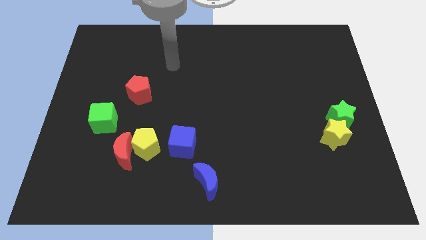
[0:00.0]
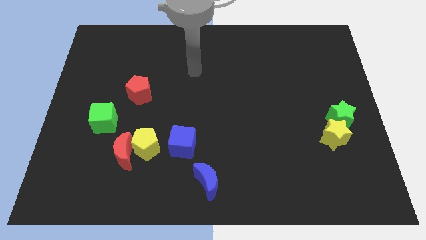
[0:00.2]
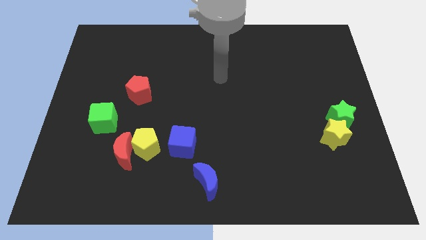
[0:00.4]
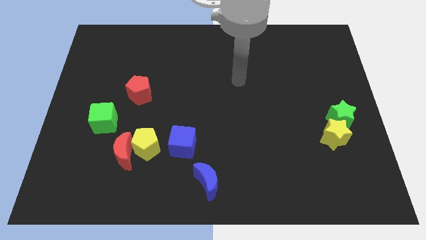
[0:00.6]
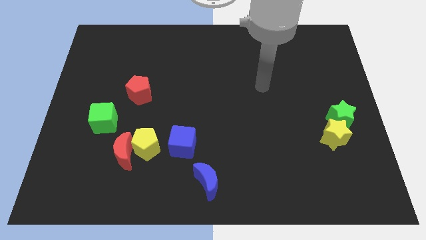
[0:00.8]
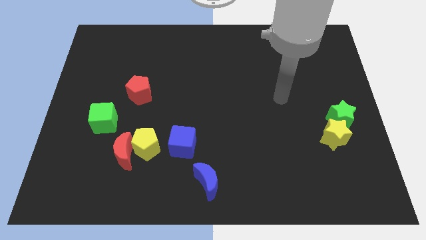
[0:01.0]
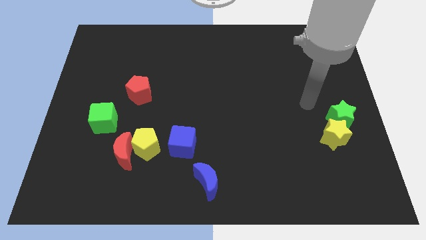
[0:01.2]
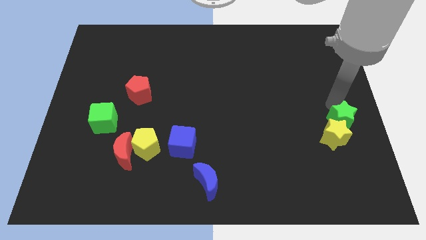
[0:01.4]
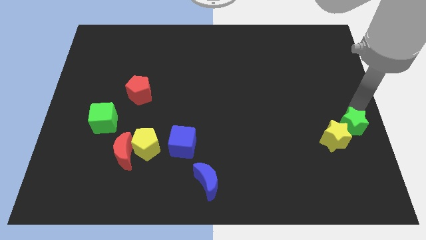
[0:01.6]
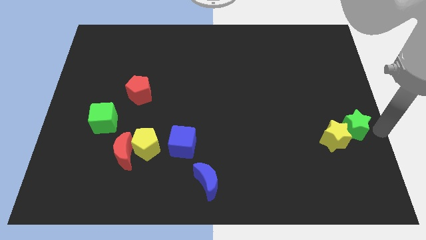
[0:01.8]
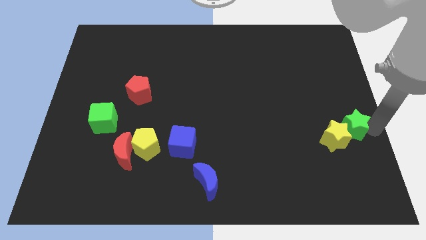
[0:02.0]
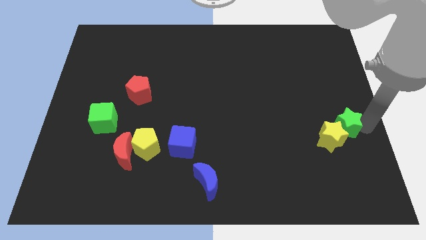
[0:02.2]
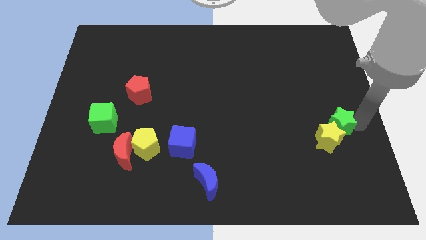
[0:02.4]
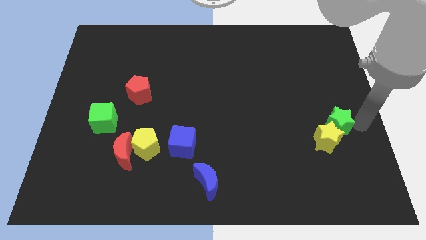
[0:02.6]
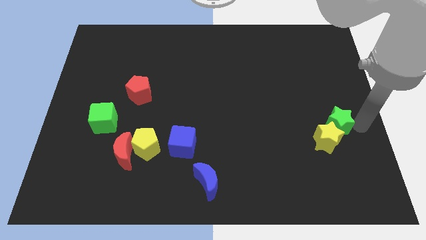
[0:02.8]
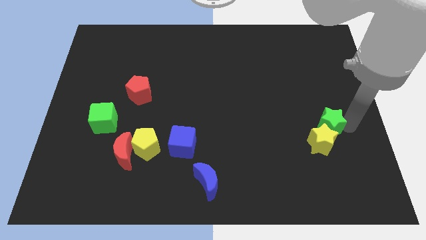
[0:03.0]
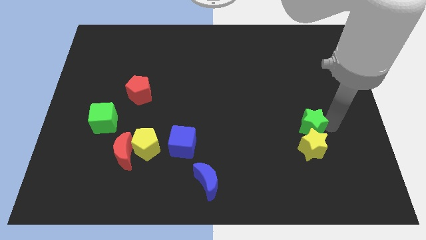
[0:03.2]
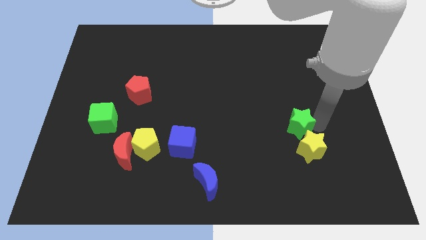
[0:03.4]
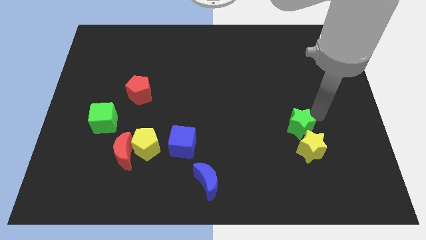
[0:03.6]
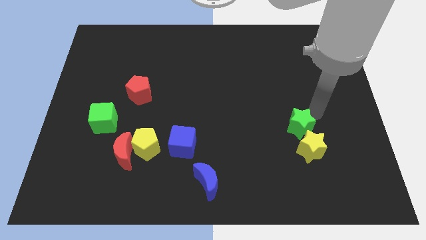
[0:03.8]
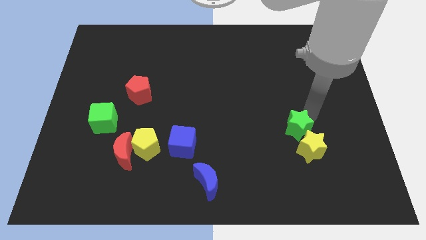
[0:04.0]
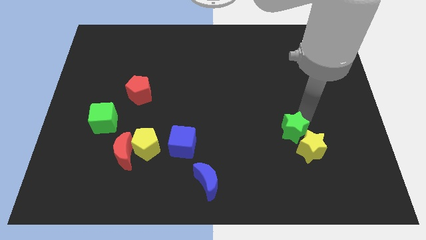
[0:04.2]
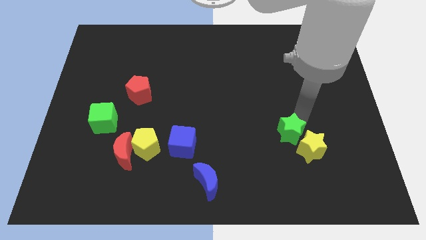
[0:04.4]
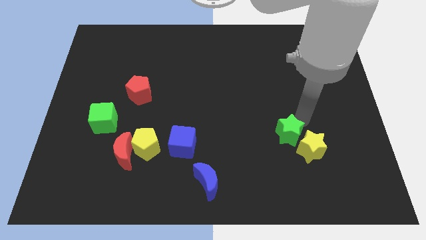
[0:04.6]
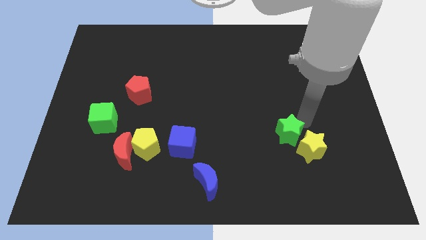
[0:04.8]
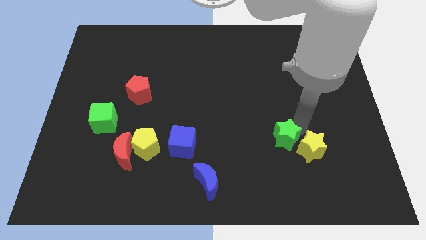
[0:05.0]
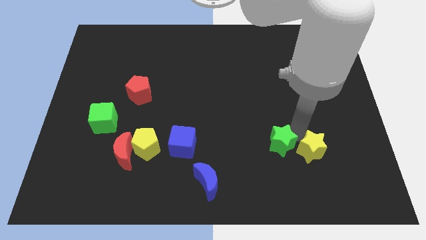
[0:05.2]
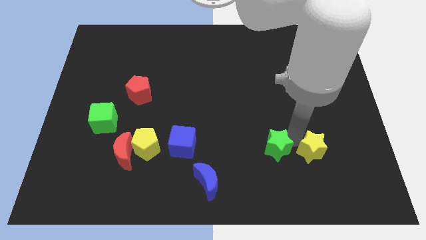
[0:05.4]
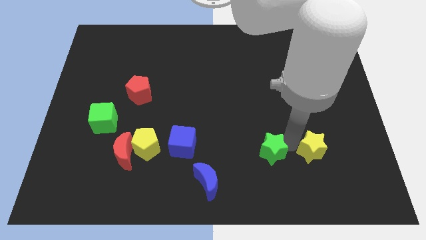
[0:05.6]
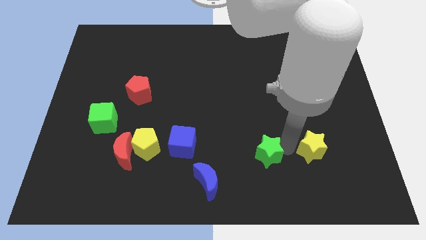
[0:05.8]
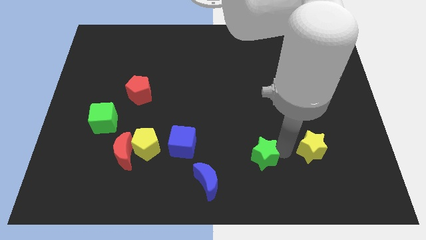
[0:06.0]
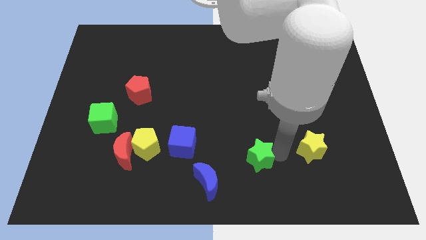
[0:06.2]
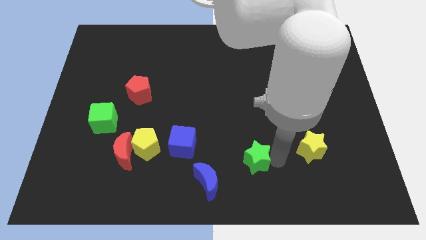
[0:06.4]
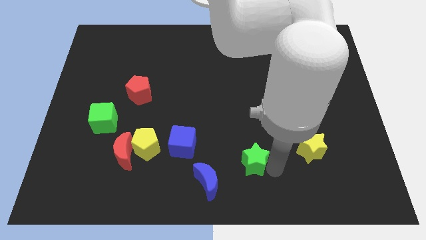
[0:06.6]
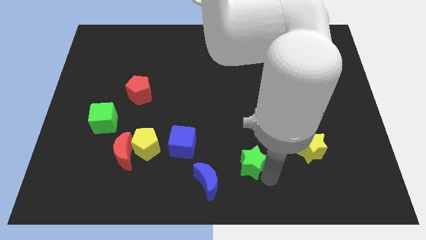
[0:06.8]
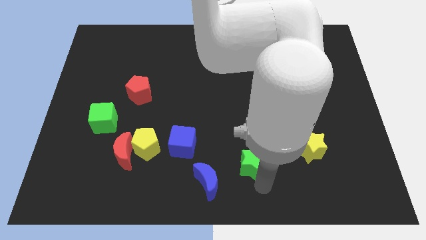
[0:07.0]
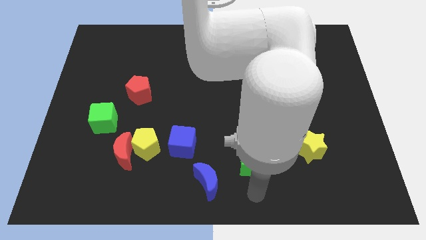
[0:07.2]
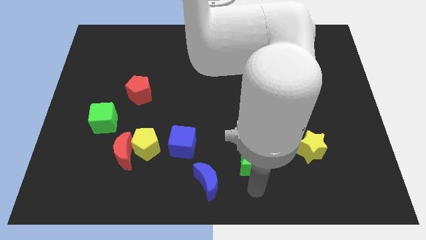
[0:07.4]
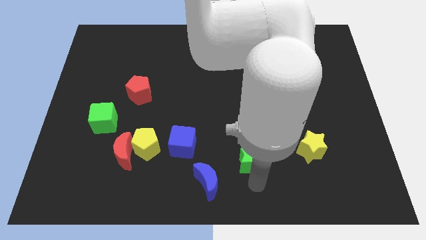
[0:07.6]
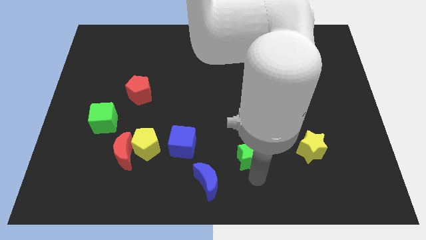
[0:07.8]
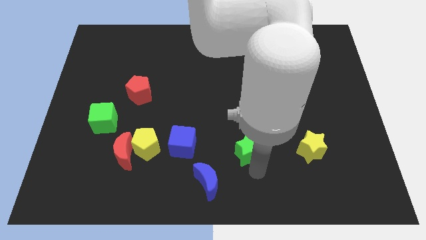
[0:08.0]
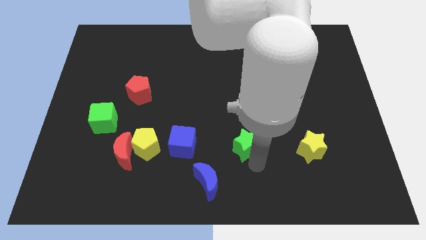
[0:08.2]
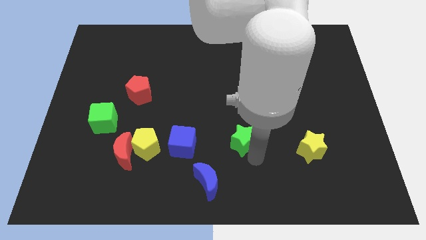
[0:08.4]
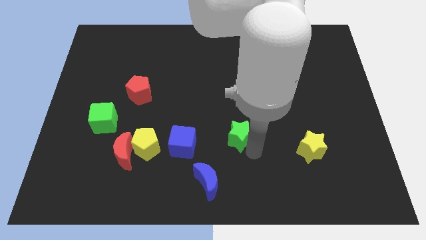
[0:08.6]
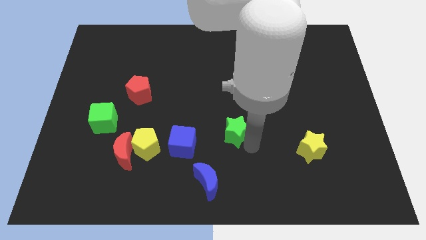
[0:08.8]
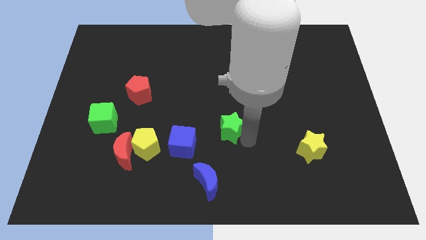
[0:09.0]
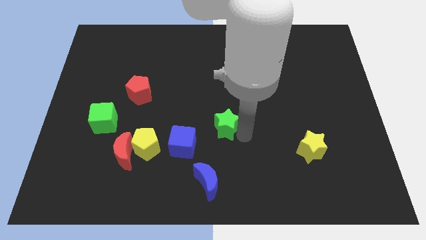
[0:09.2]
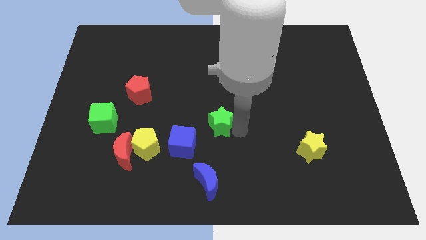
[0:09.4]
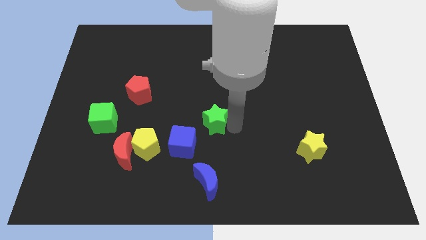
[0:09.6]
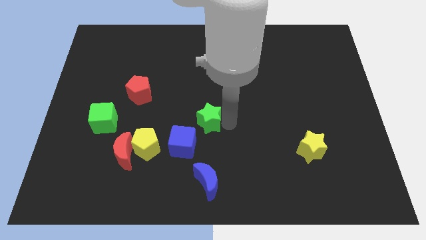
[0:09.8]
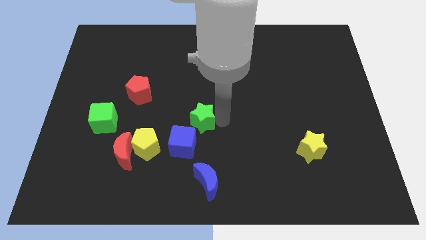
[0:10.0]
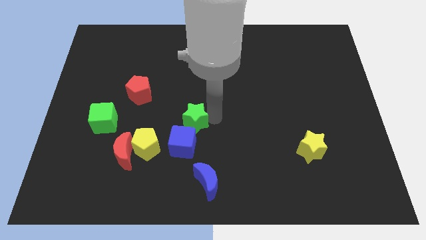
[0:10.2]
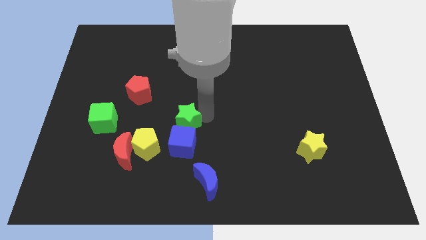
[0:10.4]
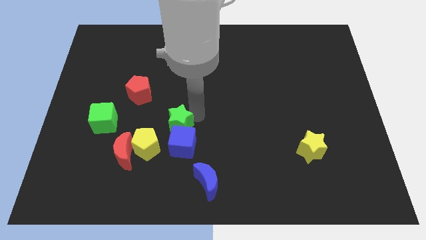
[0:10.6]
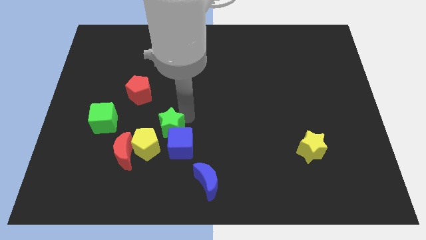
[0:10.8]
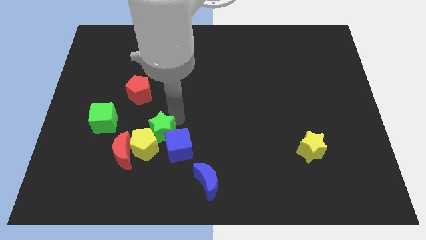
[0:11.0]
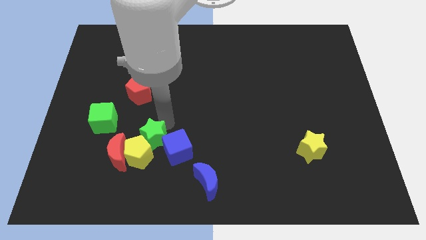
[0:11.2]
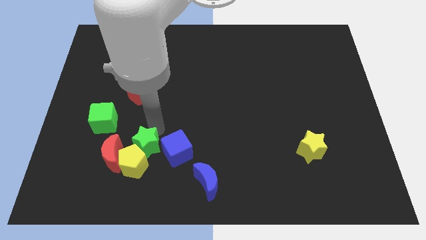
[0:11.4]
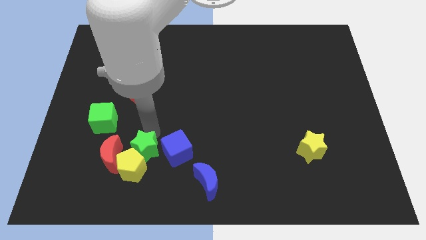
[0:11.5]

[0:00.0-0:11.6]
put the green star to the bottom left side of the blue cube

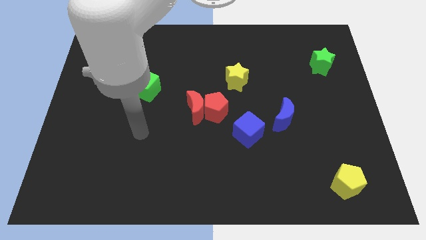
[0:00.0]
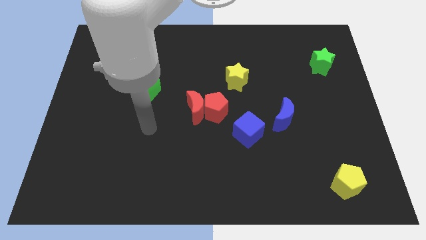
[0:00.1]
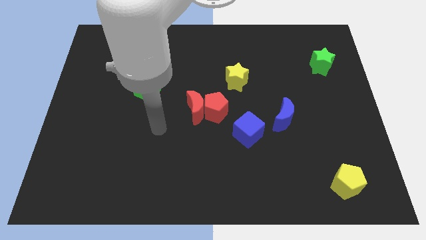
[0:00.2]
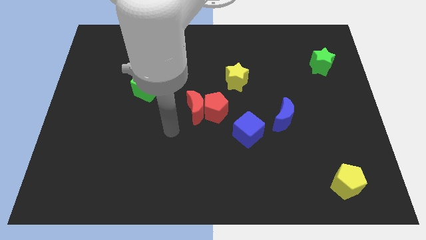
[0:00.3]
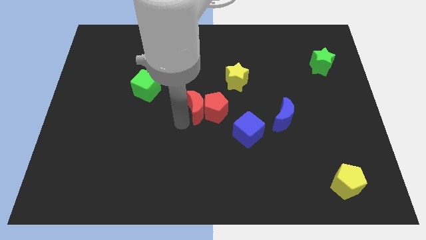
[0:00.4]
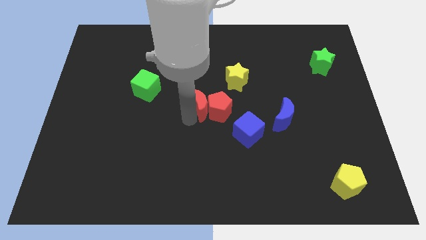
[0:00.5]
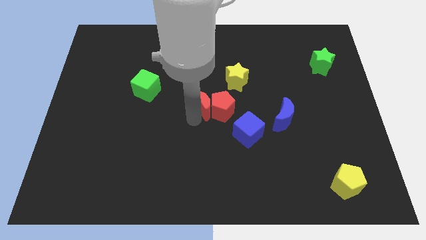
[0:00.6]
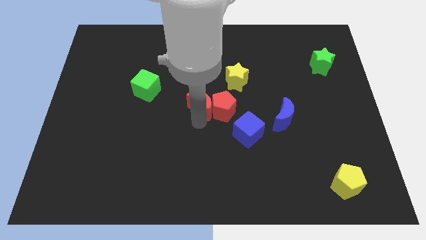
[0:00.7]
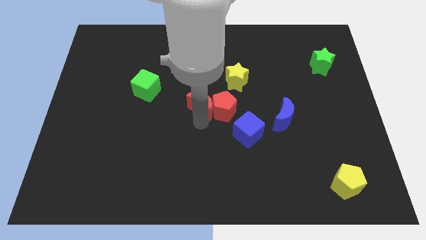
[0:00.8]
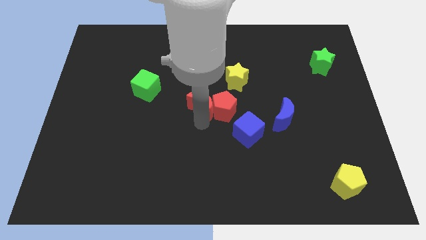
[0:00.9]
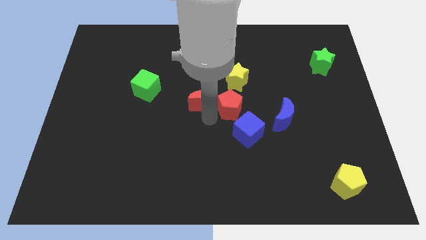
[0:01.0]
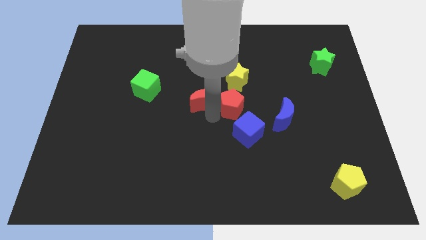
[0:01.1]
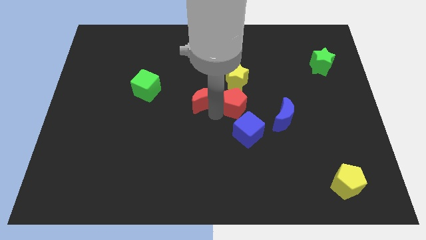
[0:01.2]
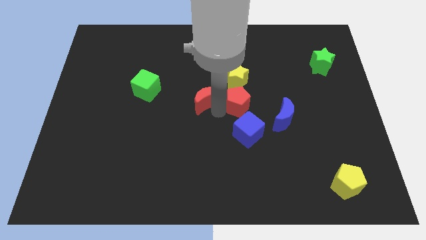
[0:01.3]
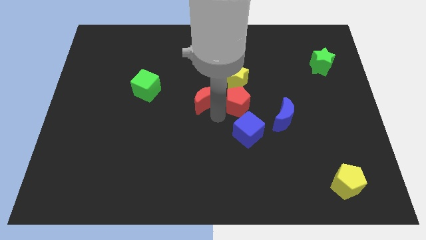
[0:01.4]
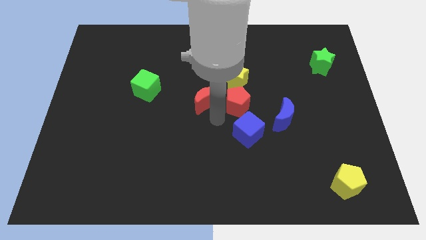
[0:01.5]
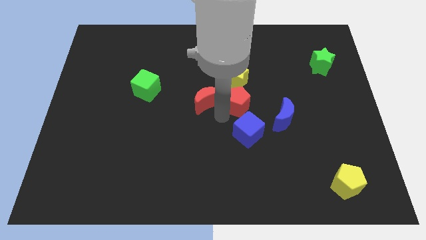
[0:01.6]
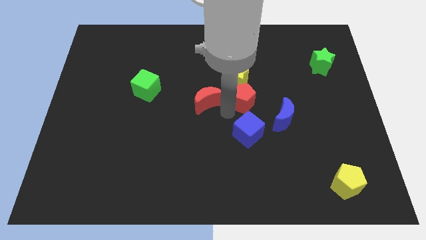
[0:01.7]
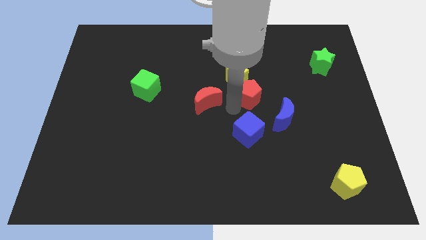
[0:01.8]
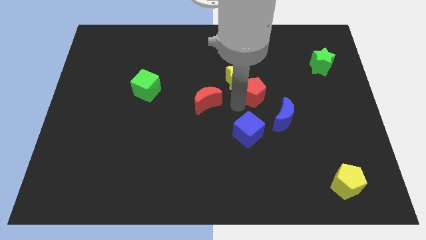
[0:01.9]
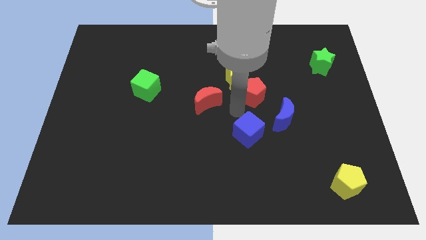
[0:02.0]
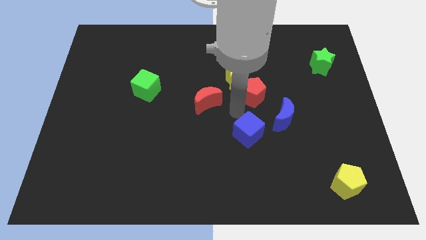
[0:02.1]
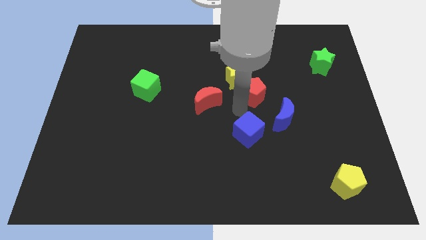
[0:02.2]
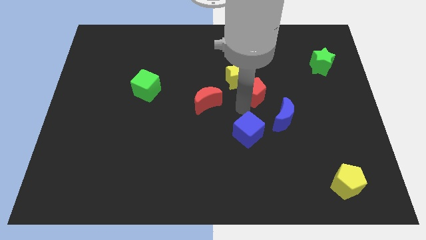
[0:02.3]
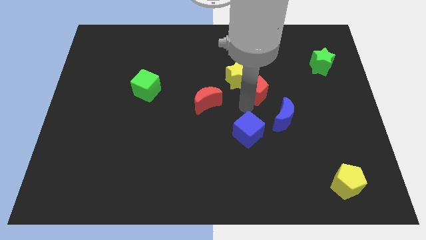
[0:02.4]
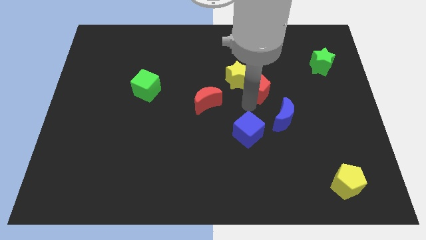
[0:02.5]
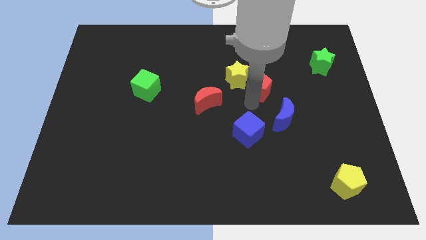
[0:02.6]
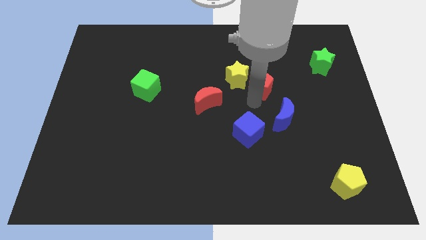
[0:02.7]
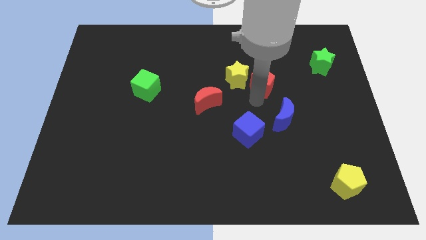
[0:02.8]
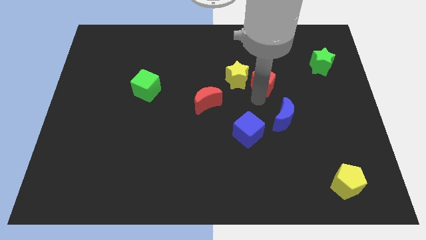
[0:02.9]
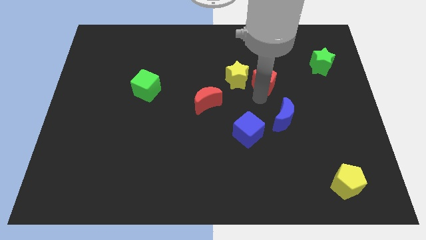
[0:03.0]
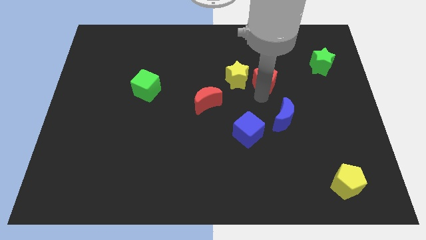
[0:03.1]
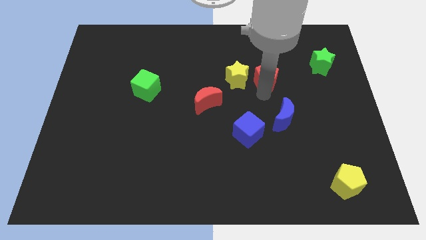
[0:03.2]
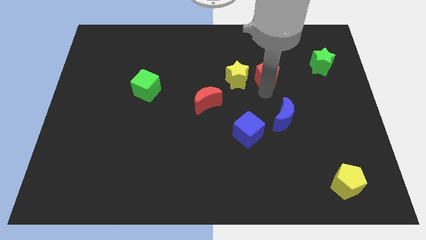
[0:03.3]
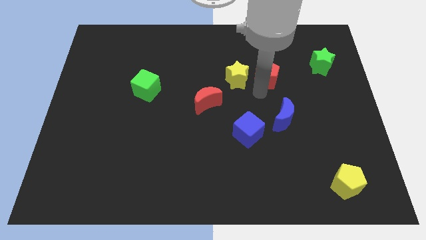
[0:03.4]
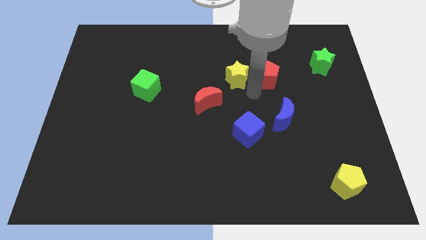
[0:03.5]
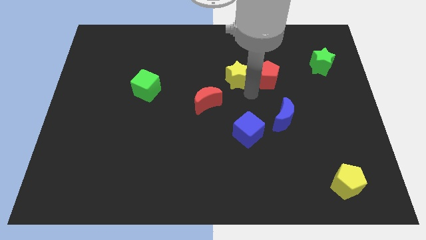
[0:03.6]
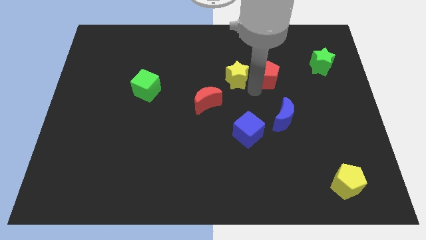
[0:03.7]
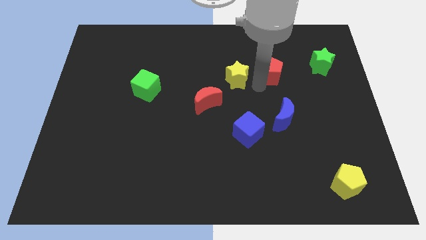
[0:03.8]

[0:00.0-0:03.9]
move the red pentagon left of the green star
